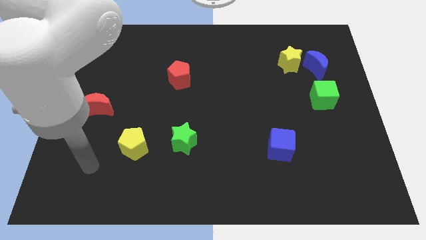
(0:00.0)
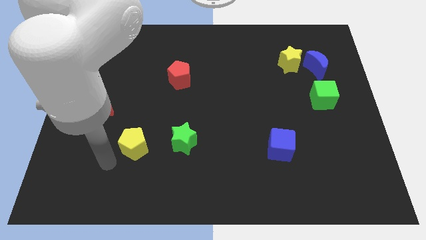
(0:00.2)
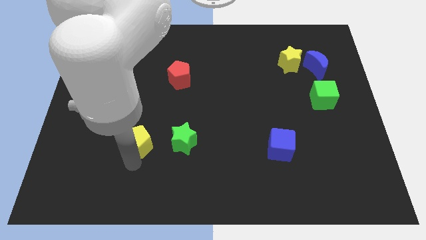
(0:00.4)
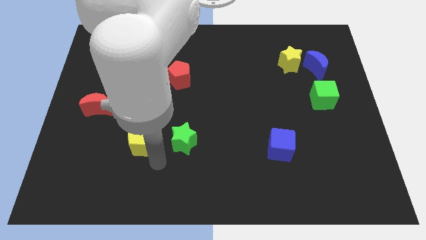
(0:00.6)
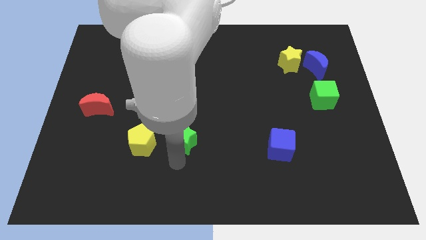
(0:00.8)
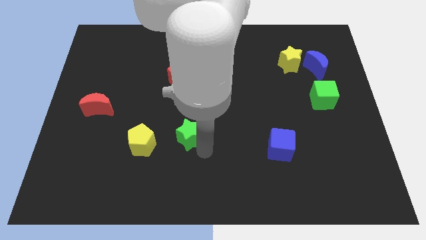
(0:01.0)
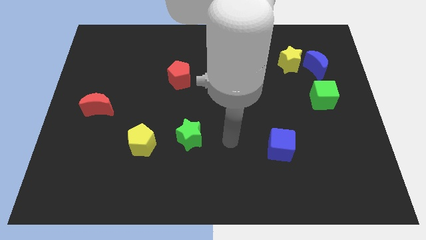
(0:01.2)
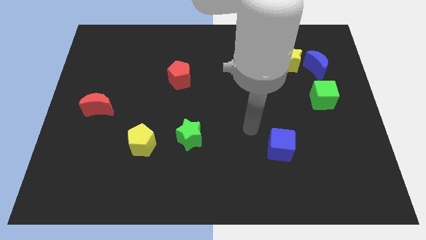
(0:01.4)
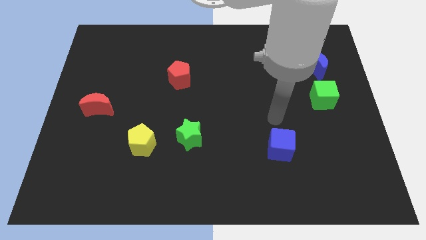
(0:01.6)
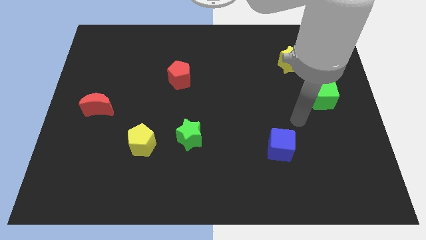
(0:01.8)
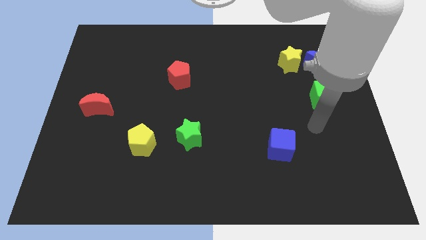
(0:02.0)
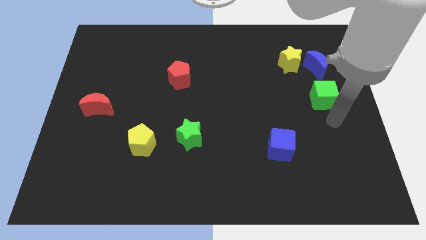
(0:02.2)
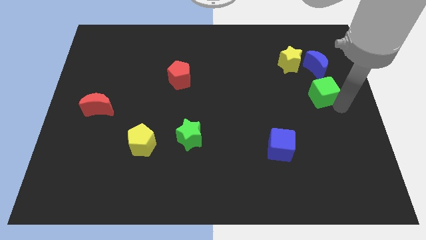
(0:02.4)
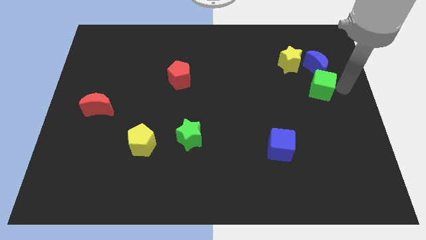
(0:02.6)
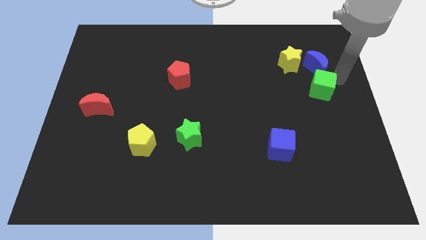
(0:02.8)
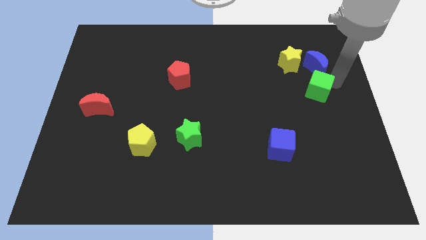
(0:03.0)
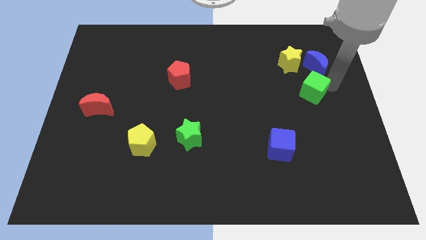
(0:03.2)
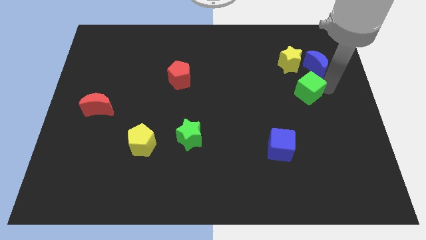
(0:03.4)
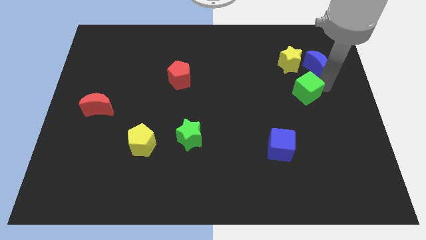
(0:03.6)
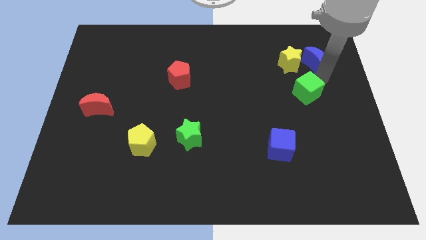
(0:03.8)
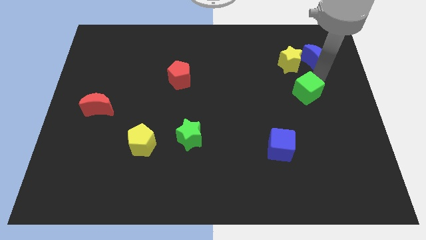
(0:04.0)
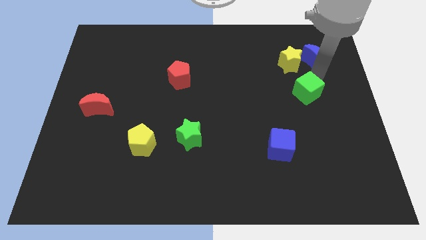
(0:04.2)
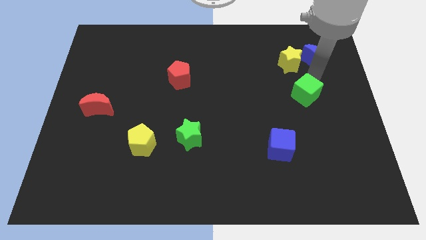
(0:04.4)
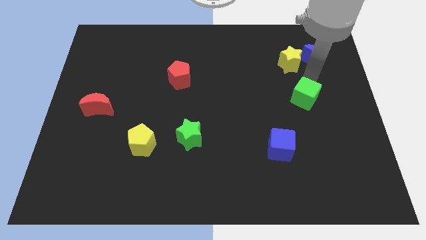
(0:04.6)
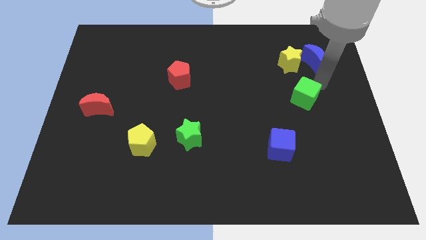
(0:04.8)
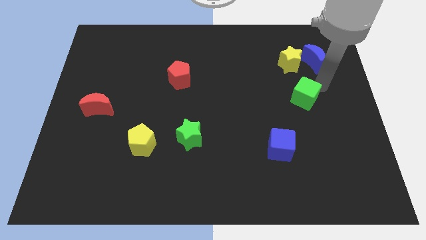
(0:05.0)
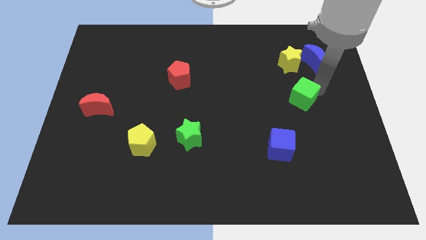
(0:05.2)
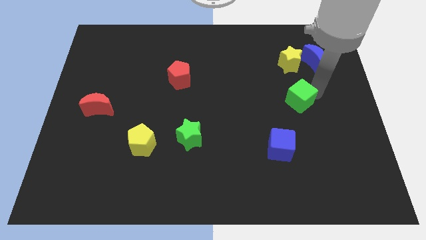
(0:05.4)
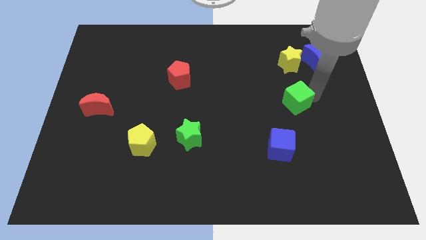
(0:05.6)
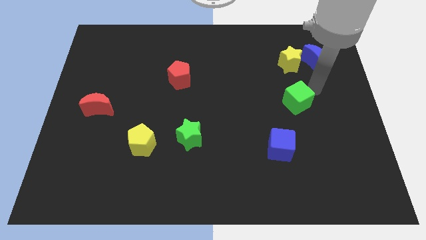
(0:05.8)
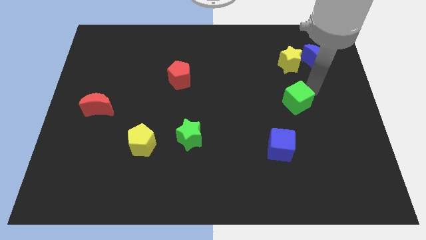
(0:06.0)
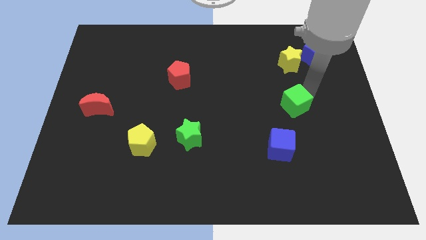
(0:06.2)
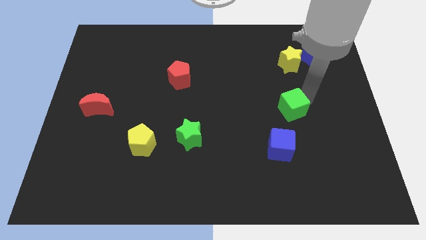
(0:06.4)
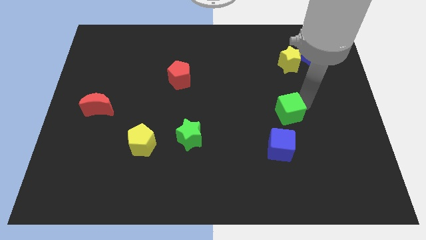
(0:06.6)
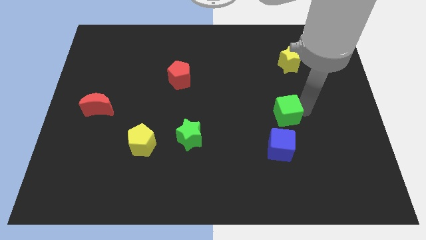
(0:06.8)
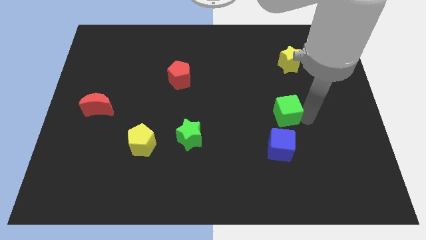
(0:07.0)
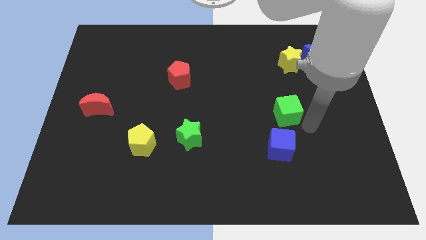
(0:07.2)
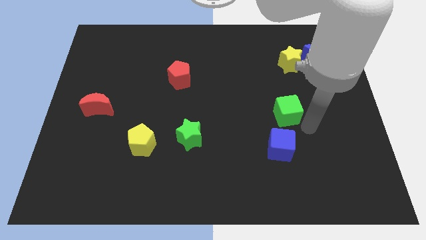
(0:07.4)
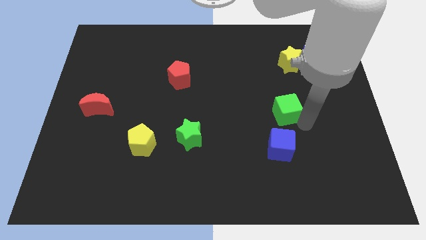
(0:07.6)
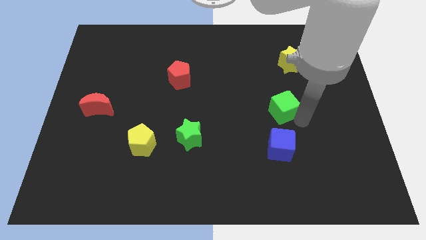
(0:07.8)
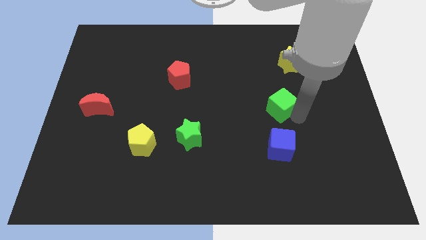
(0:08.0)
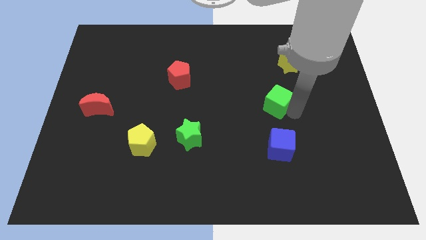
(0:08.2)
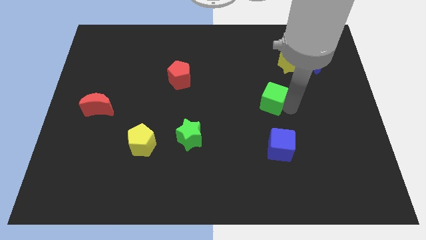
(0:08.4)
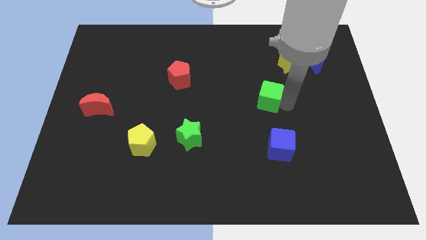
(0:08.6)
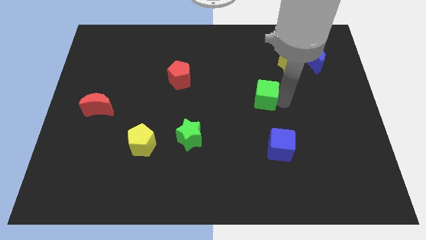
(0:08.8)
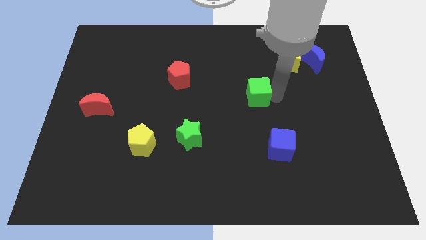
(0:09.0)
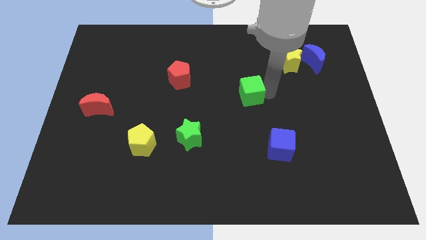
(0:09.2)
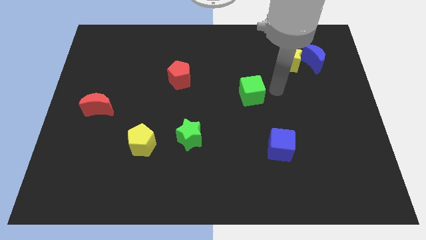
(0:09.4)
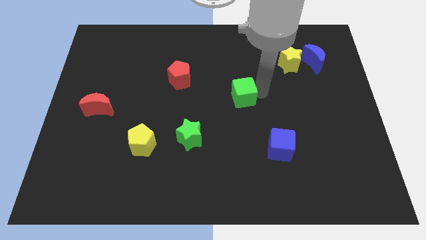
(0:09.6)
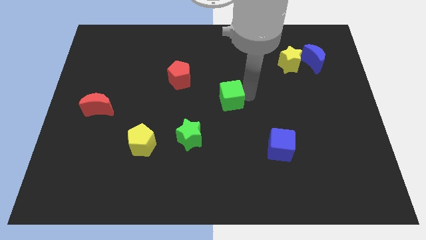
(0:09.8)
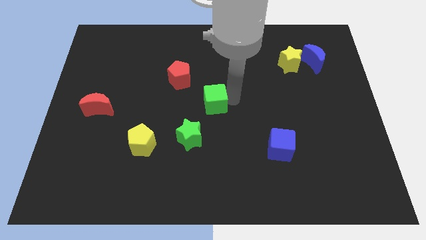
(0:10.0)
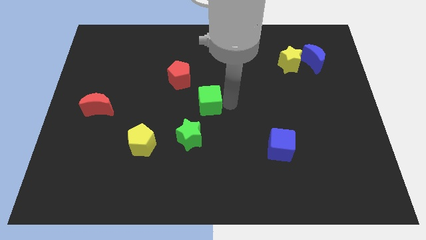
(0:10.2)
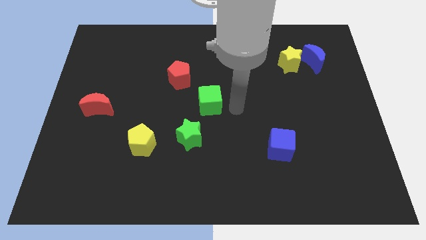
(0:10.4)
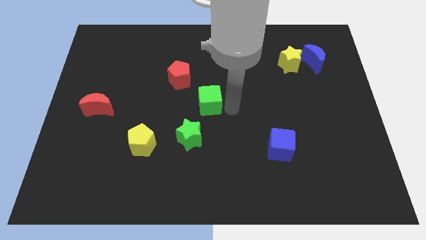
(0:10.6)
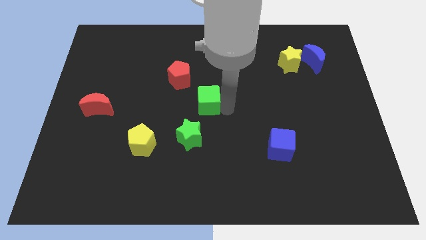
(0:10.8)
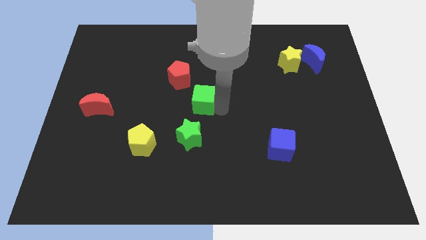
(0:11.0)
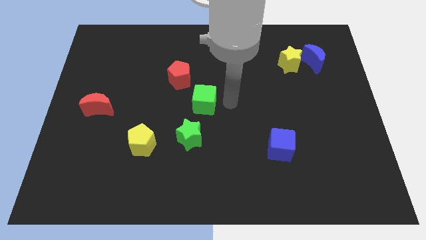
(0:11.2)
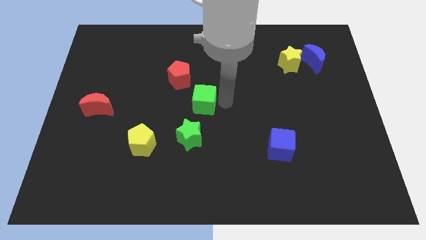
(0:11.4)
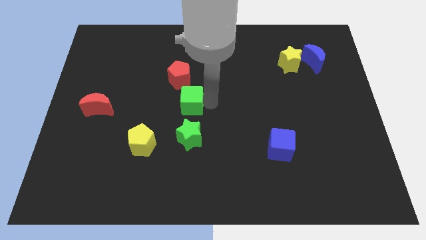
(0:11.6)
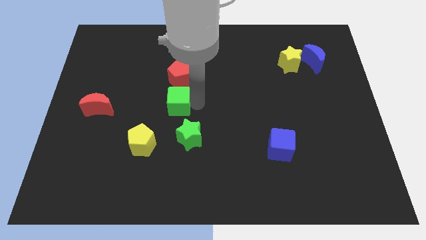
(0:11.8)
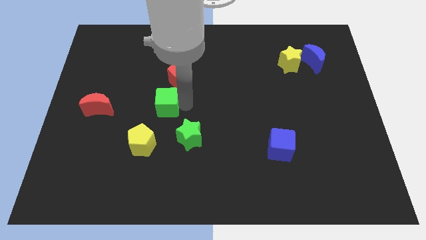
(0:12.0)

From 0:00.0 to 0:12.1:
push the green cube right of the red moon

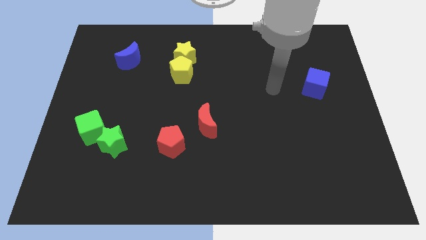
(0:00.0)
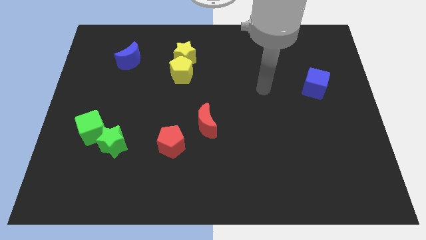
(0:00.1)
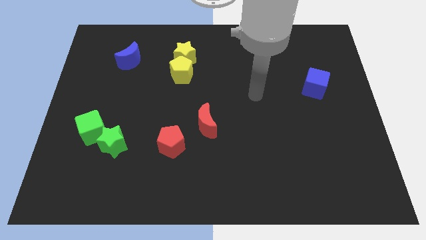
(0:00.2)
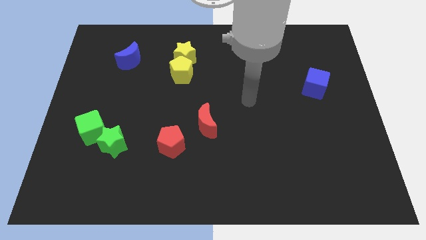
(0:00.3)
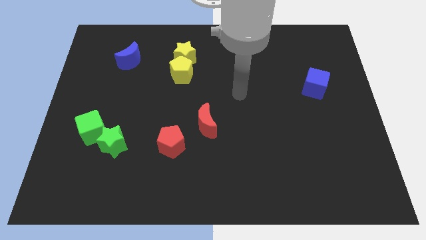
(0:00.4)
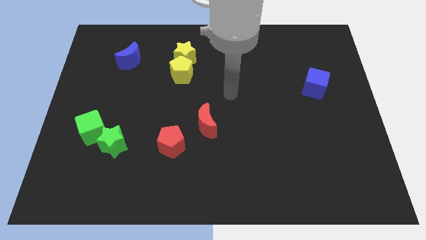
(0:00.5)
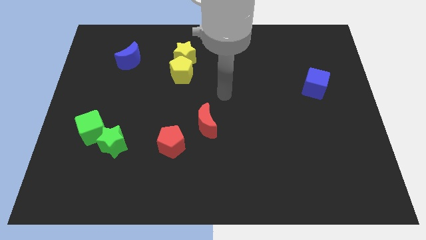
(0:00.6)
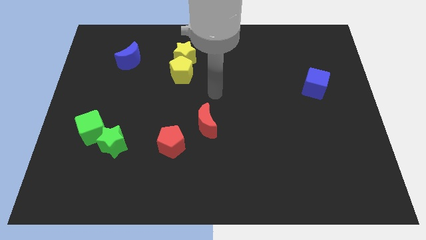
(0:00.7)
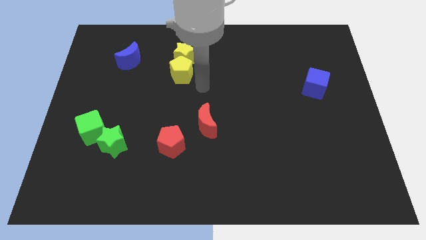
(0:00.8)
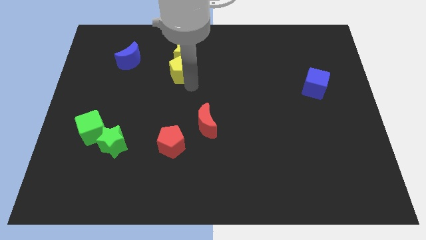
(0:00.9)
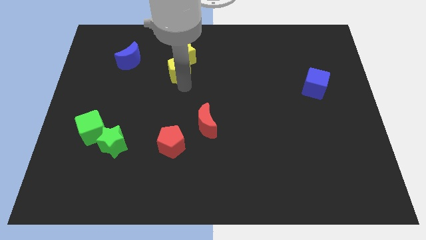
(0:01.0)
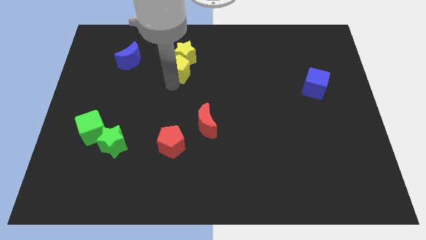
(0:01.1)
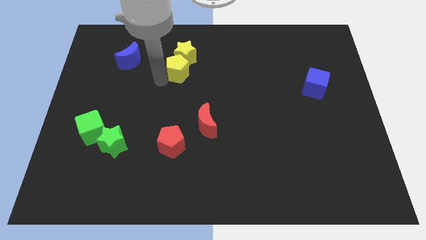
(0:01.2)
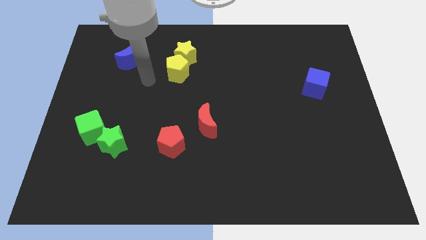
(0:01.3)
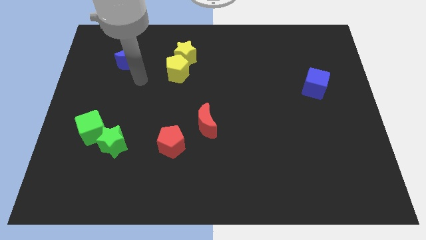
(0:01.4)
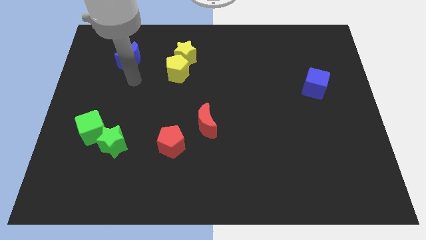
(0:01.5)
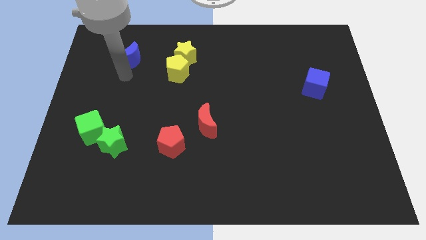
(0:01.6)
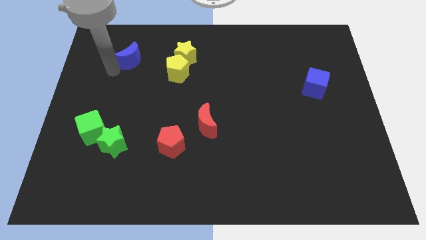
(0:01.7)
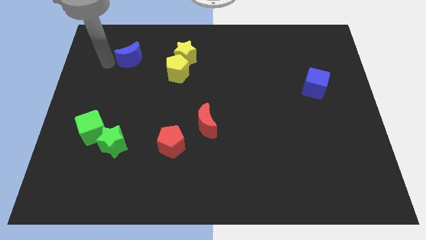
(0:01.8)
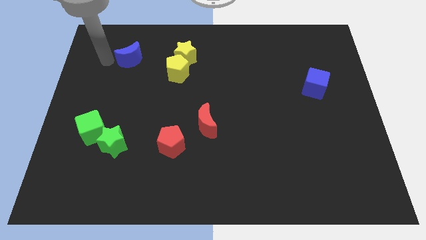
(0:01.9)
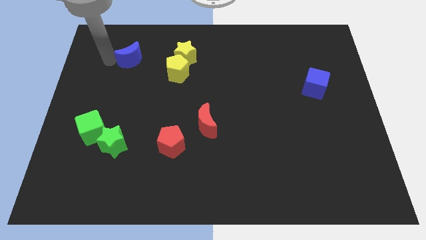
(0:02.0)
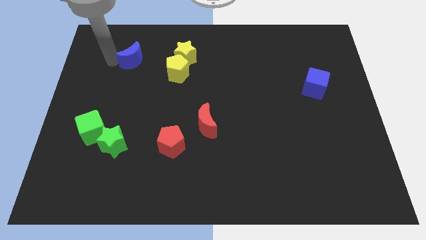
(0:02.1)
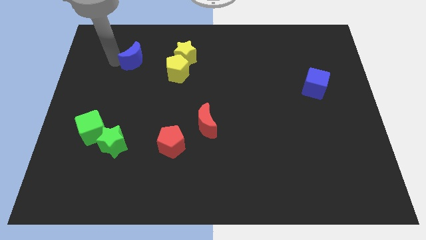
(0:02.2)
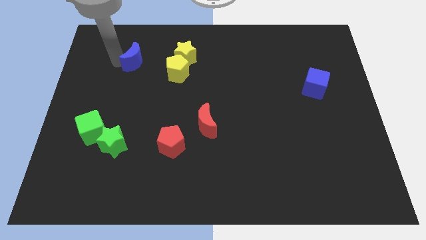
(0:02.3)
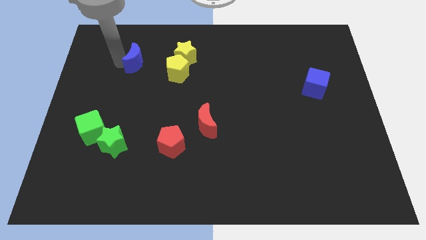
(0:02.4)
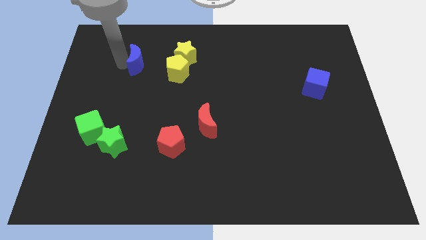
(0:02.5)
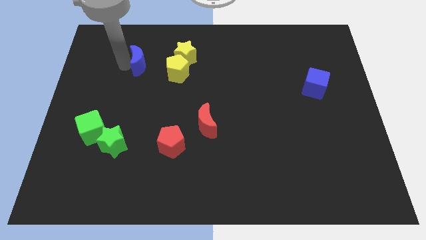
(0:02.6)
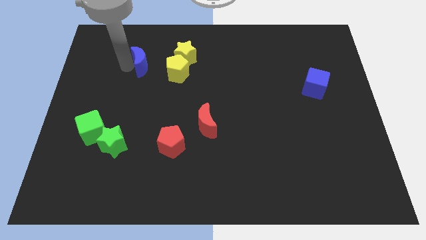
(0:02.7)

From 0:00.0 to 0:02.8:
push the blue moon diagonally up and to the left of the yellow pentagon
